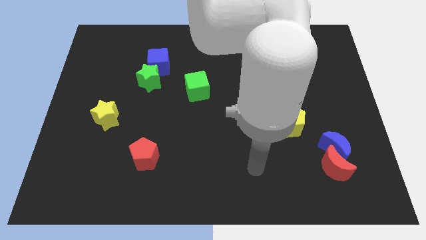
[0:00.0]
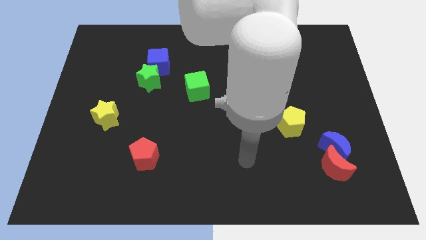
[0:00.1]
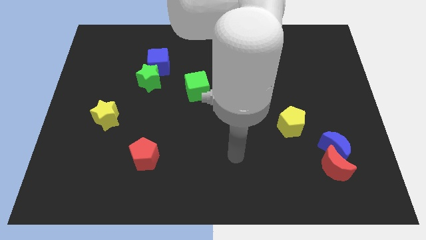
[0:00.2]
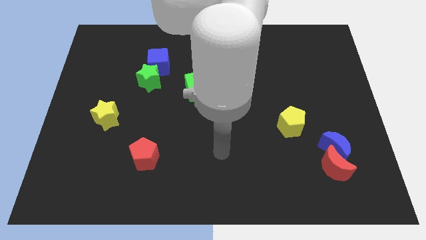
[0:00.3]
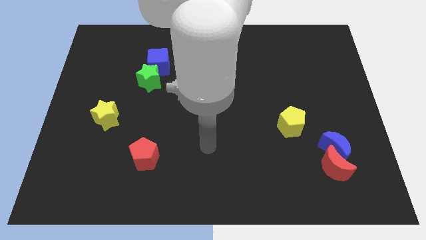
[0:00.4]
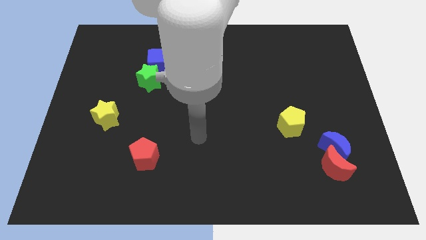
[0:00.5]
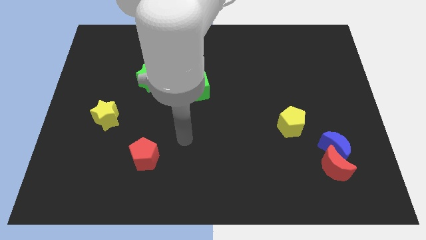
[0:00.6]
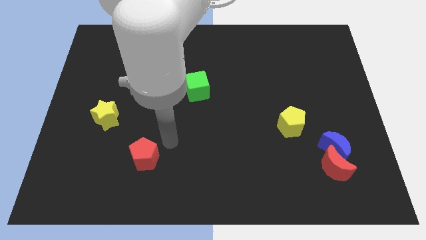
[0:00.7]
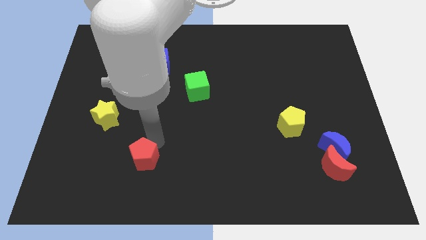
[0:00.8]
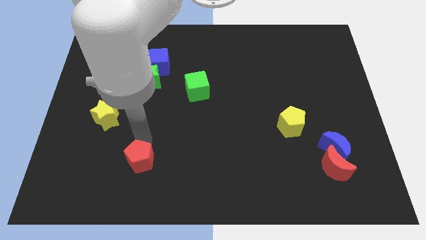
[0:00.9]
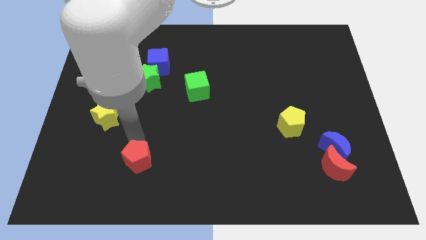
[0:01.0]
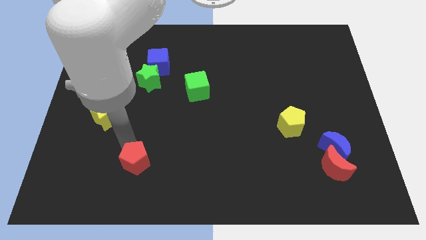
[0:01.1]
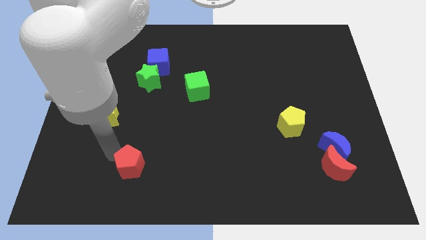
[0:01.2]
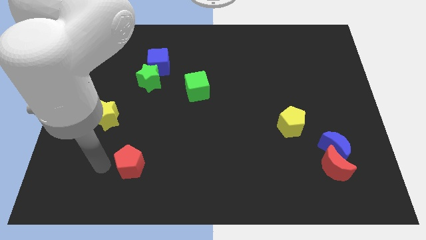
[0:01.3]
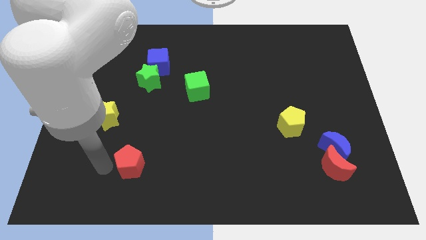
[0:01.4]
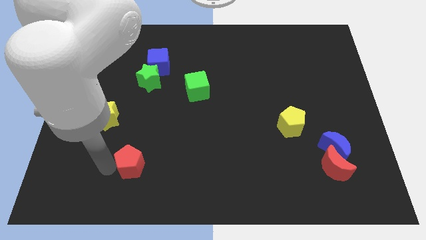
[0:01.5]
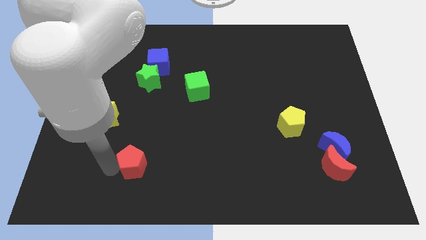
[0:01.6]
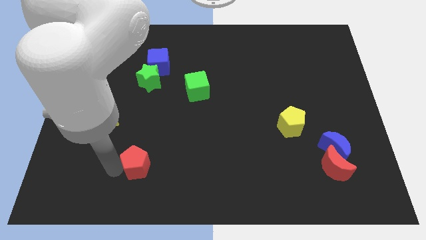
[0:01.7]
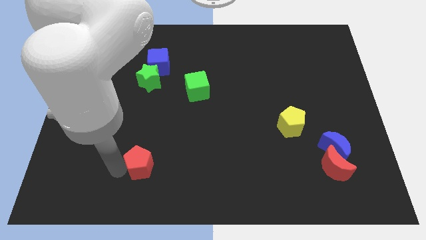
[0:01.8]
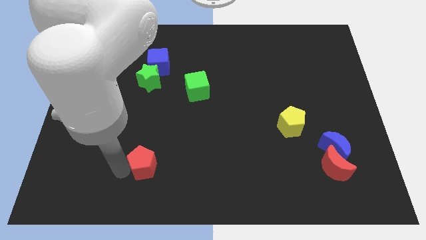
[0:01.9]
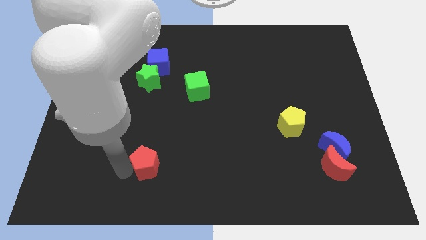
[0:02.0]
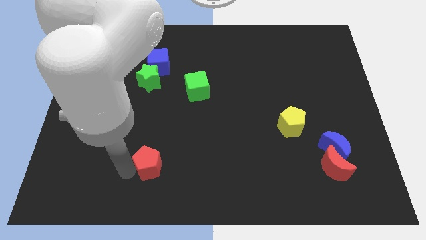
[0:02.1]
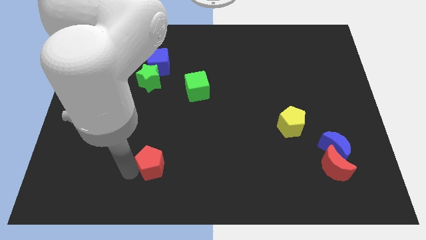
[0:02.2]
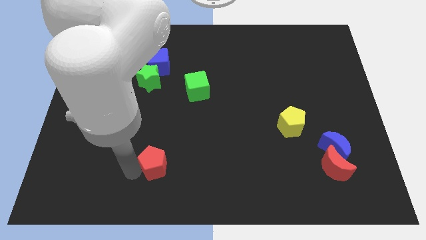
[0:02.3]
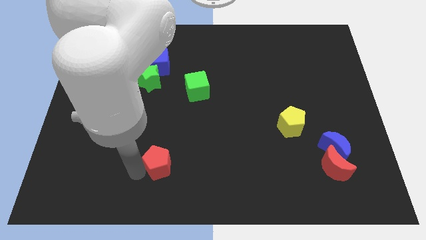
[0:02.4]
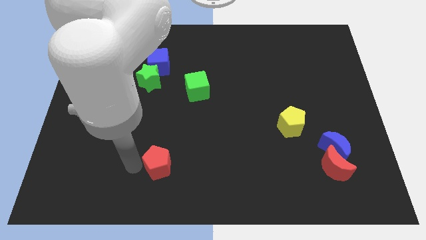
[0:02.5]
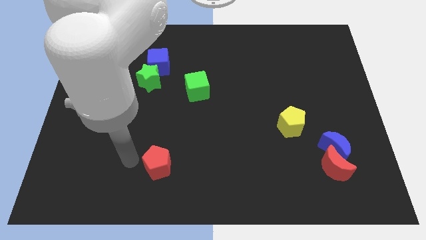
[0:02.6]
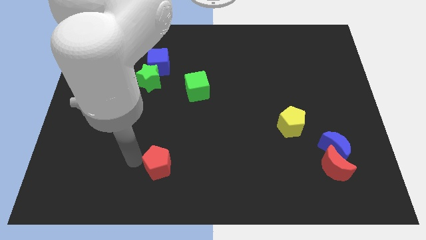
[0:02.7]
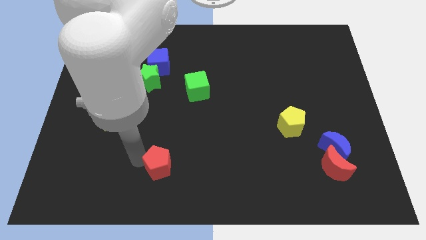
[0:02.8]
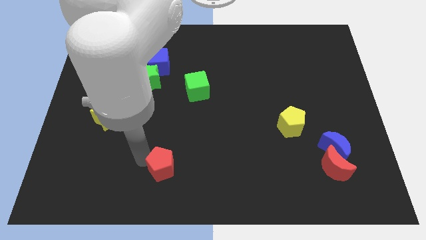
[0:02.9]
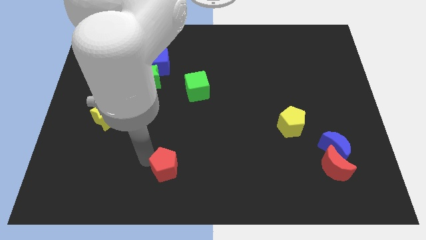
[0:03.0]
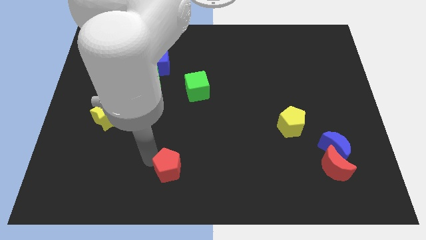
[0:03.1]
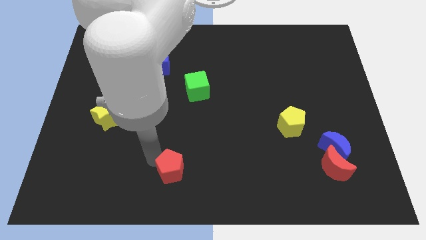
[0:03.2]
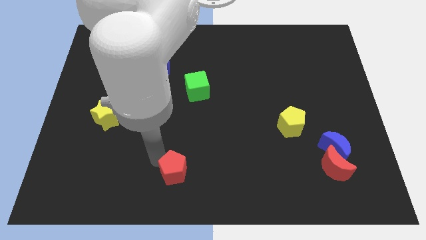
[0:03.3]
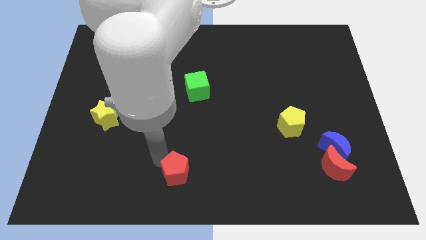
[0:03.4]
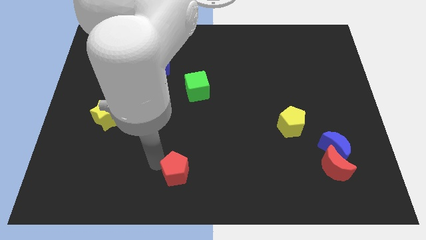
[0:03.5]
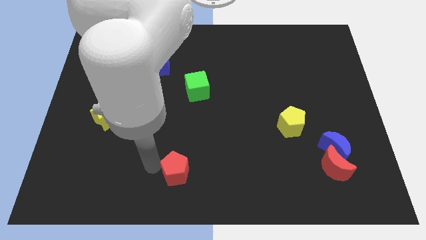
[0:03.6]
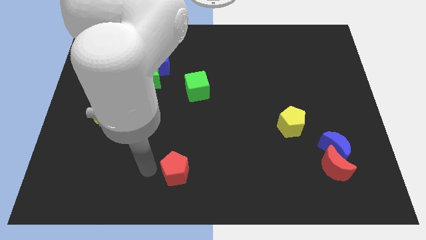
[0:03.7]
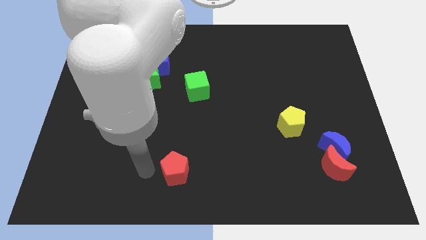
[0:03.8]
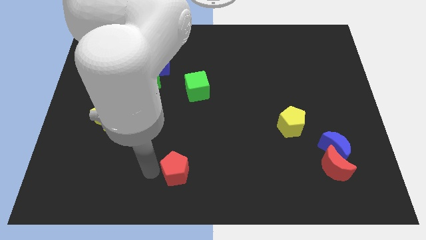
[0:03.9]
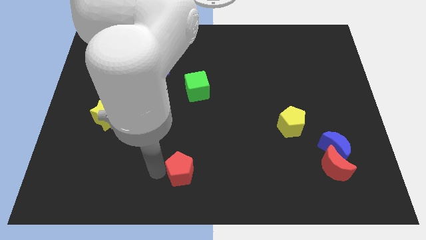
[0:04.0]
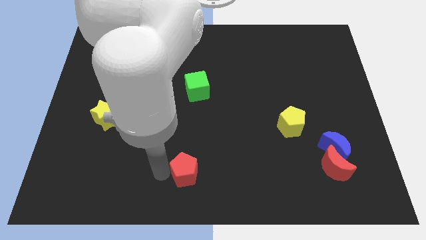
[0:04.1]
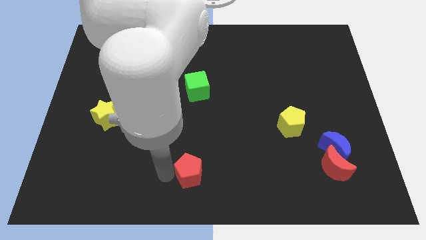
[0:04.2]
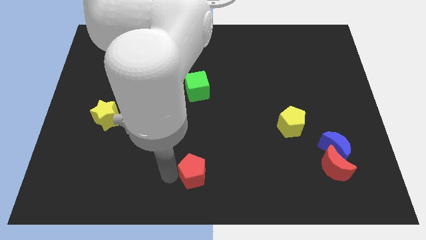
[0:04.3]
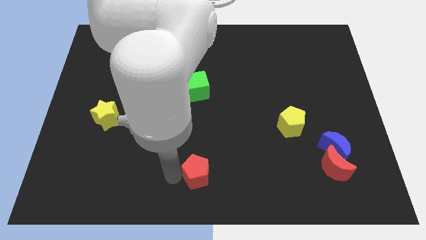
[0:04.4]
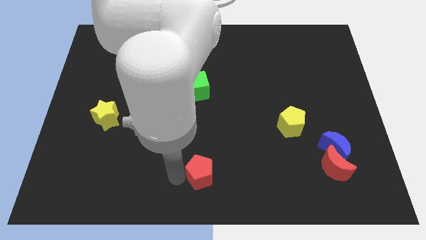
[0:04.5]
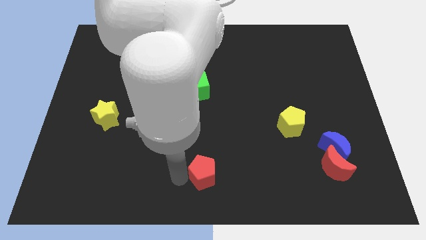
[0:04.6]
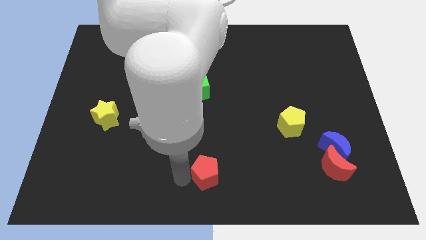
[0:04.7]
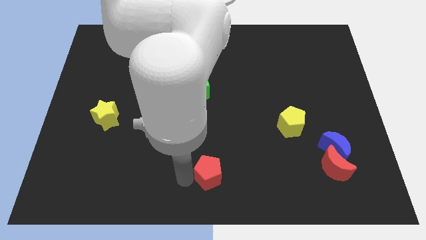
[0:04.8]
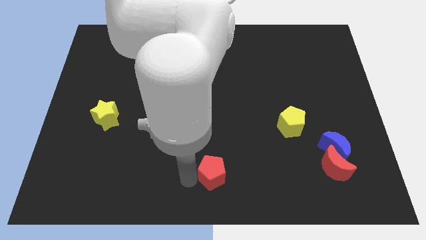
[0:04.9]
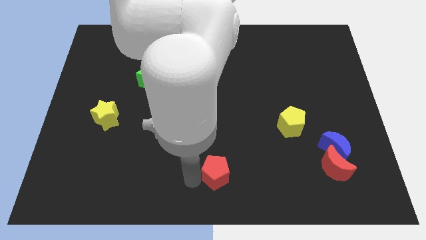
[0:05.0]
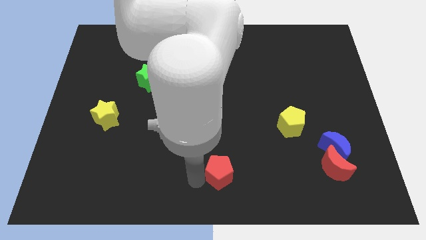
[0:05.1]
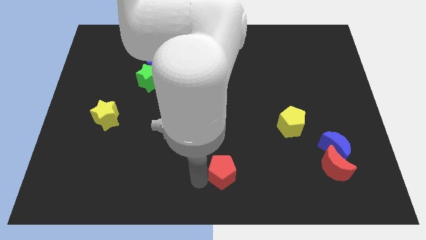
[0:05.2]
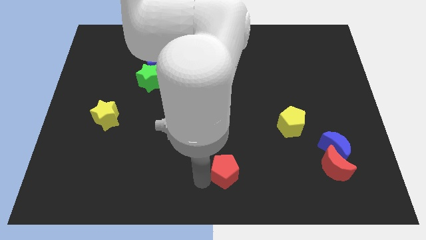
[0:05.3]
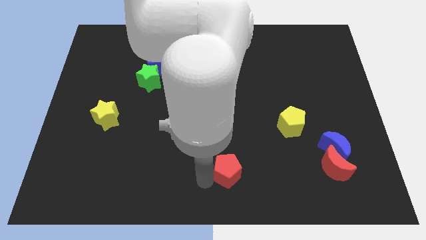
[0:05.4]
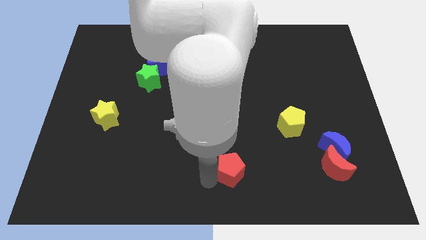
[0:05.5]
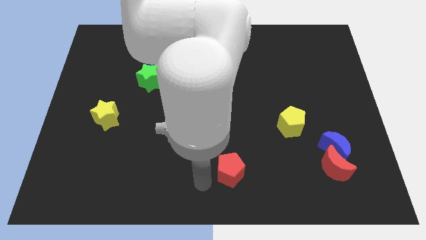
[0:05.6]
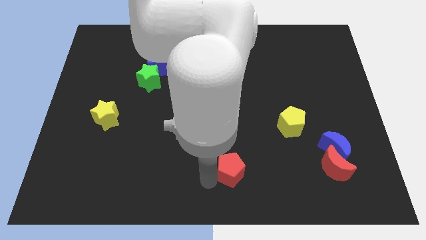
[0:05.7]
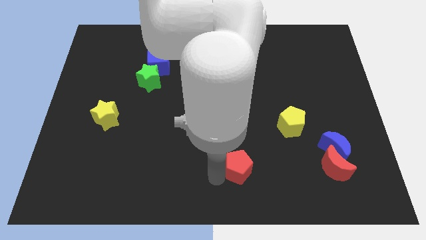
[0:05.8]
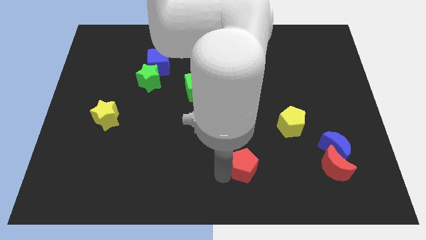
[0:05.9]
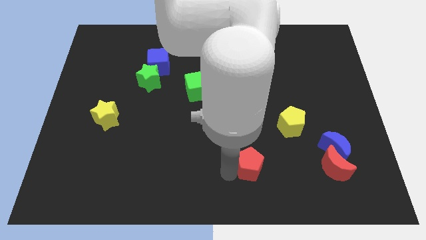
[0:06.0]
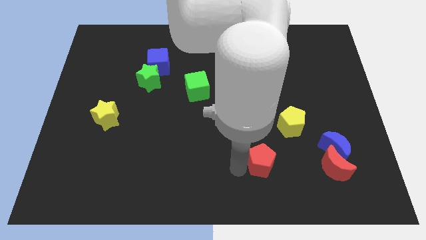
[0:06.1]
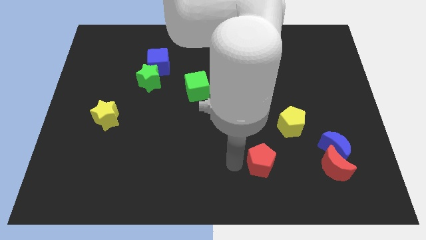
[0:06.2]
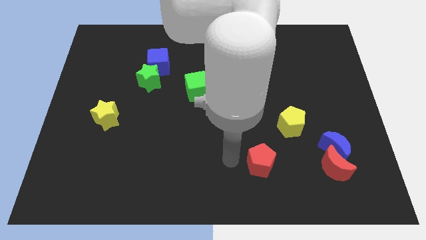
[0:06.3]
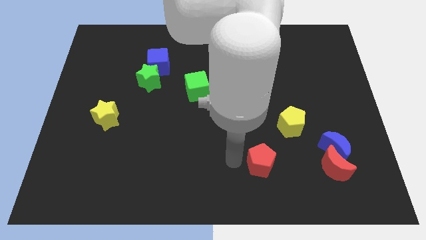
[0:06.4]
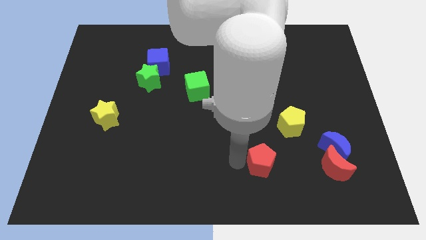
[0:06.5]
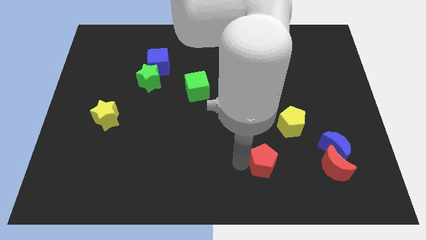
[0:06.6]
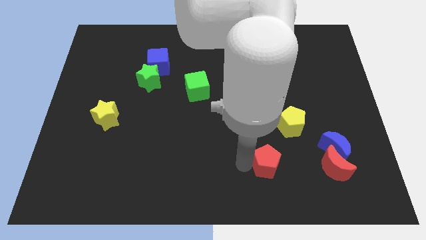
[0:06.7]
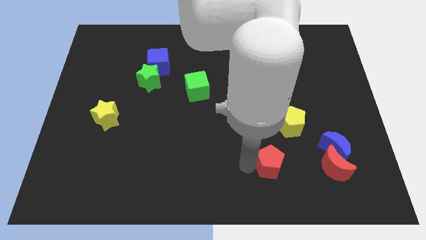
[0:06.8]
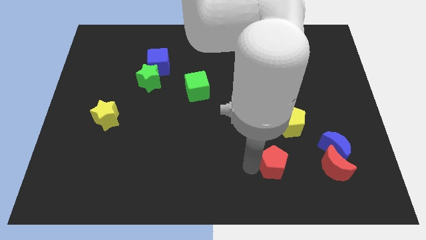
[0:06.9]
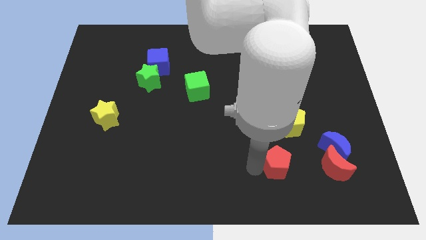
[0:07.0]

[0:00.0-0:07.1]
move the red pentagon to the bottom of the yellow pentagon
